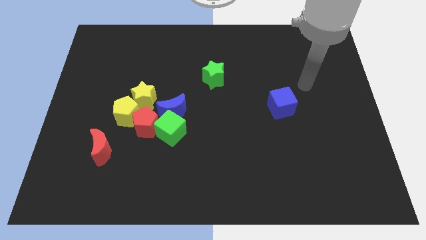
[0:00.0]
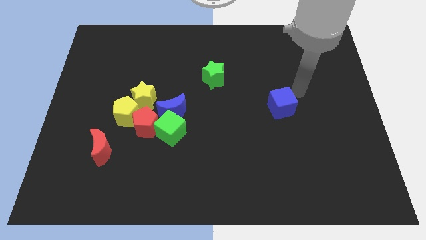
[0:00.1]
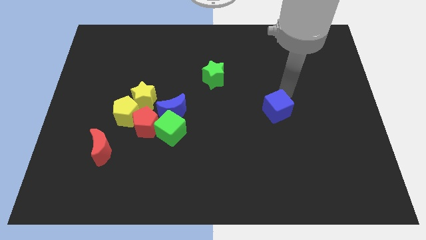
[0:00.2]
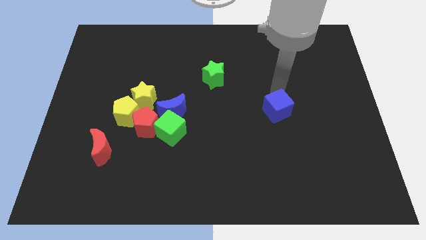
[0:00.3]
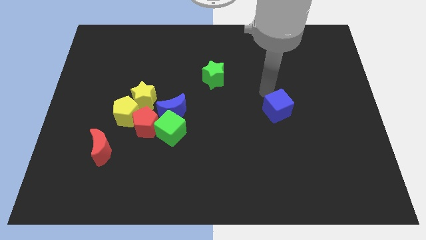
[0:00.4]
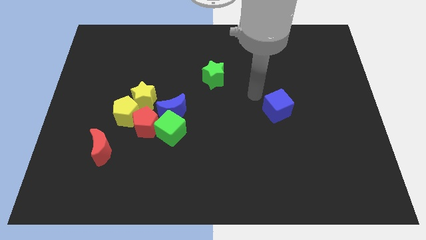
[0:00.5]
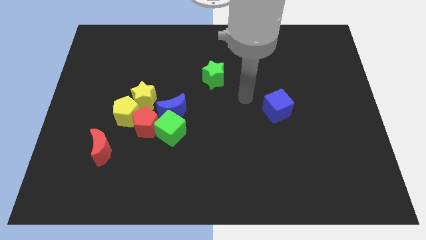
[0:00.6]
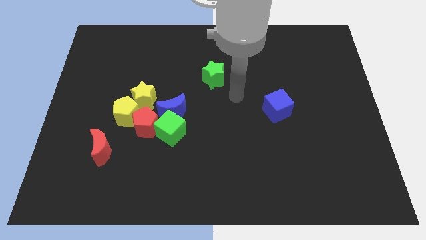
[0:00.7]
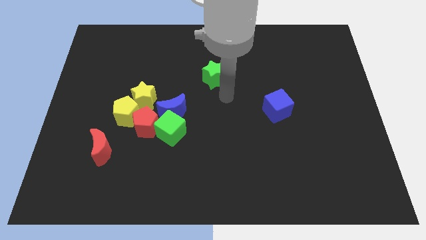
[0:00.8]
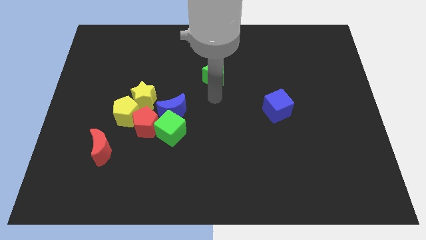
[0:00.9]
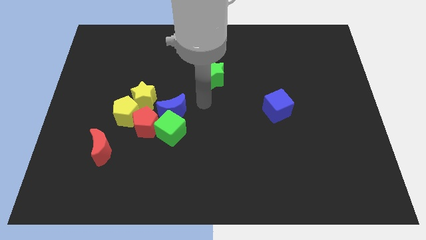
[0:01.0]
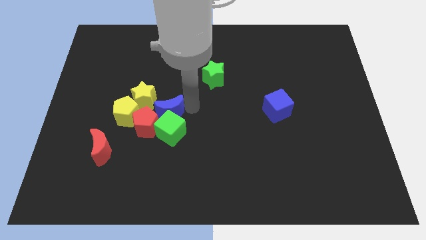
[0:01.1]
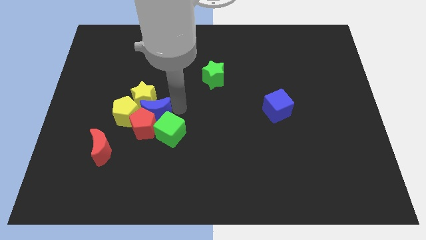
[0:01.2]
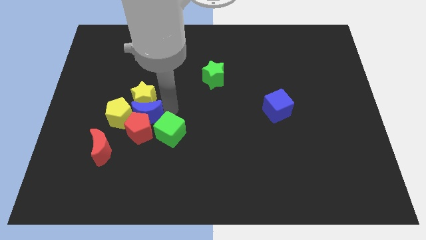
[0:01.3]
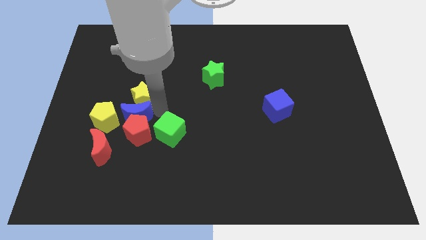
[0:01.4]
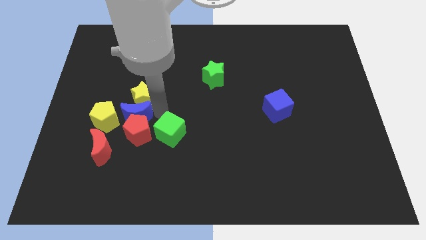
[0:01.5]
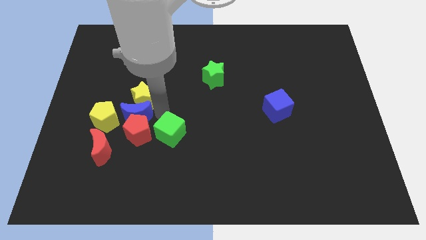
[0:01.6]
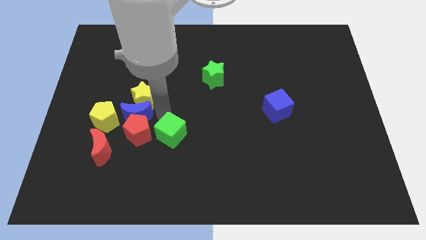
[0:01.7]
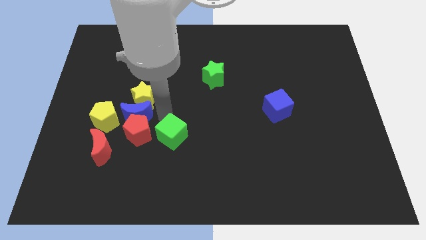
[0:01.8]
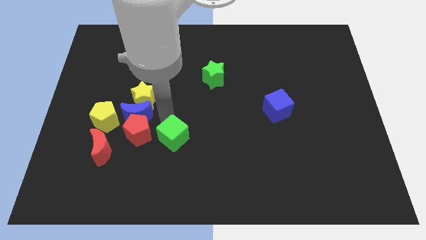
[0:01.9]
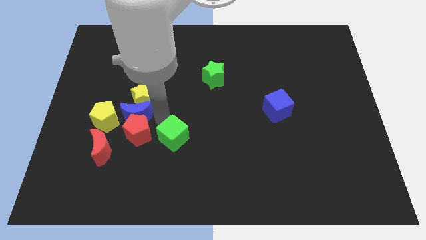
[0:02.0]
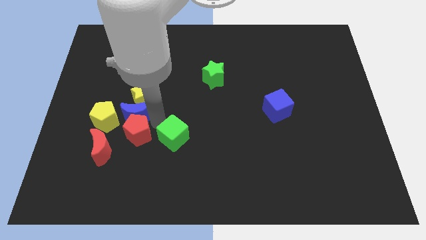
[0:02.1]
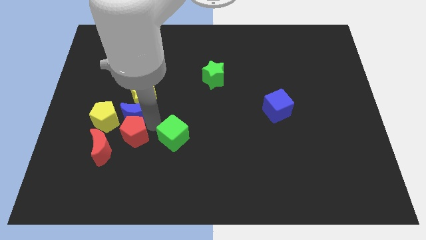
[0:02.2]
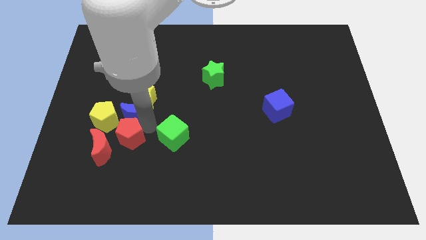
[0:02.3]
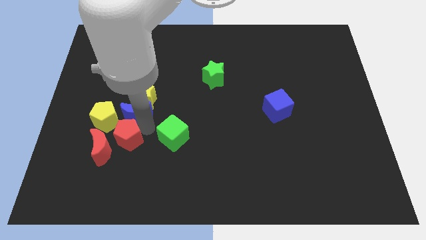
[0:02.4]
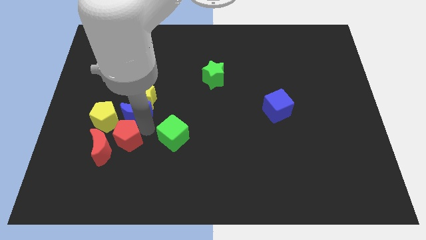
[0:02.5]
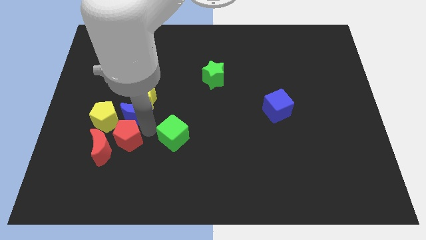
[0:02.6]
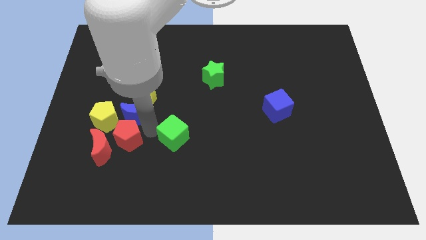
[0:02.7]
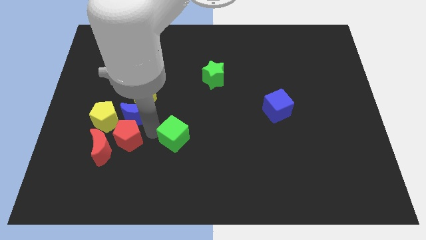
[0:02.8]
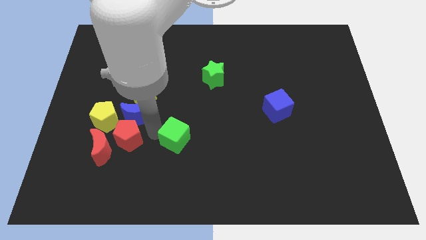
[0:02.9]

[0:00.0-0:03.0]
move the green cube away from the blue moon and red pentagon

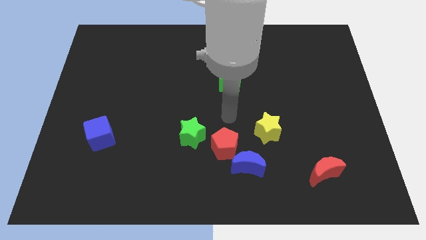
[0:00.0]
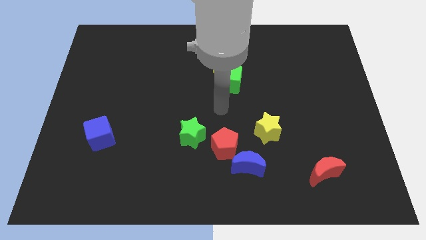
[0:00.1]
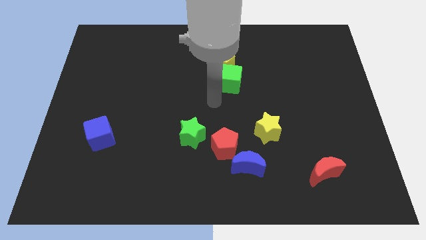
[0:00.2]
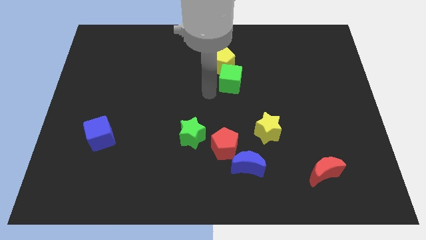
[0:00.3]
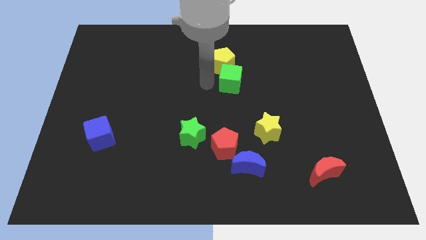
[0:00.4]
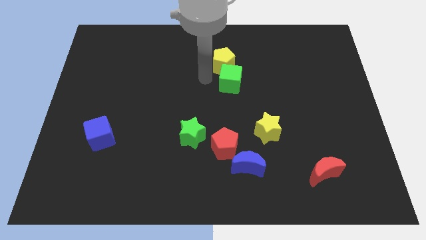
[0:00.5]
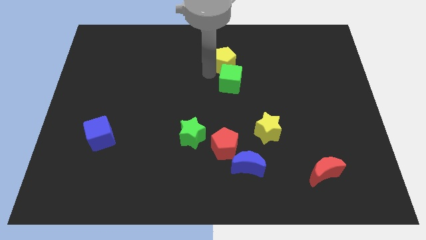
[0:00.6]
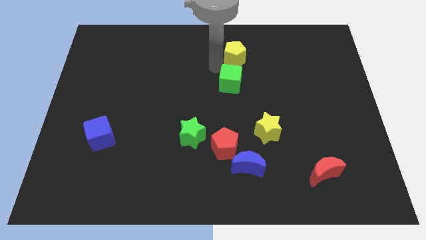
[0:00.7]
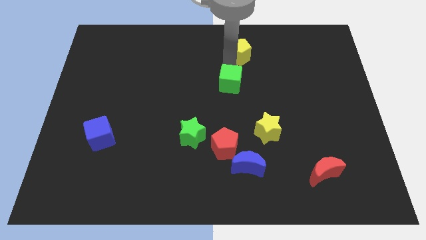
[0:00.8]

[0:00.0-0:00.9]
move the green cube away from the yellow pentagon

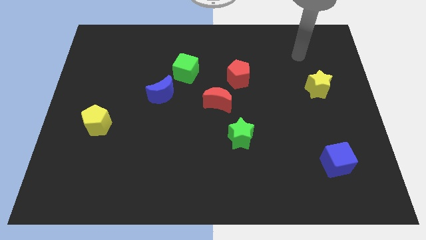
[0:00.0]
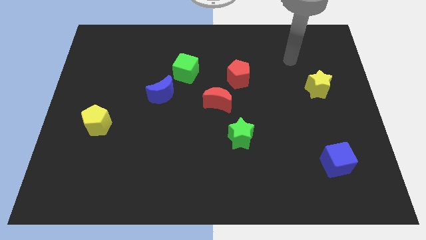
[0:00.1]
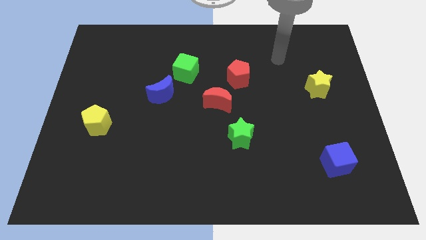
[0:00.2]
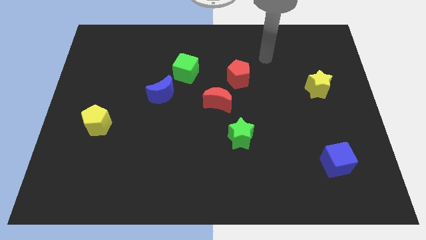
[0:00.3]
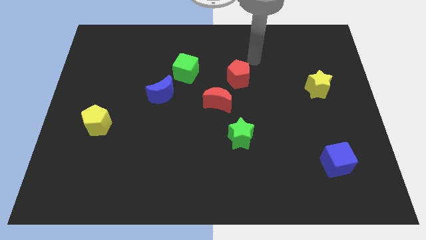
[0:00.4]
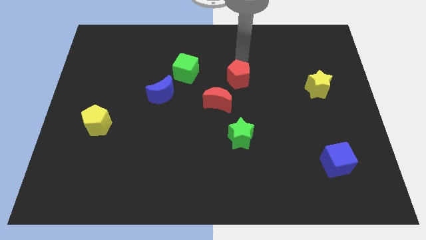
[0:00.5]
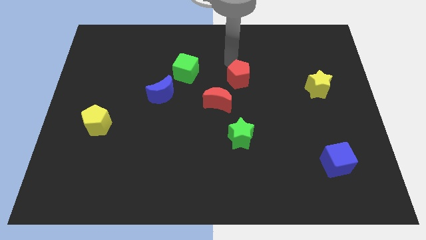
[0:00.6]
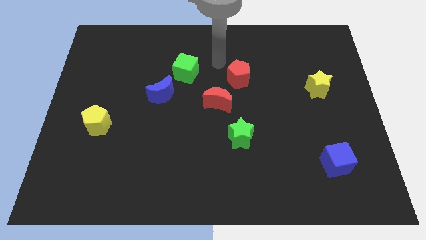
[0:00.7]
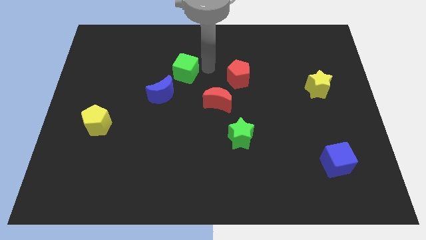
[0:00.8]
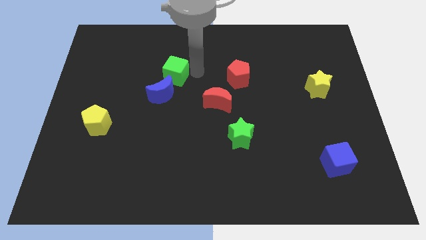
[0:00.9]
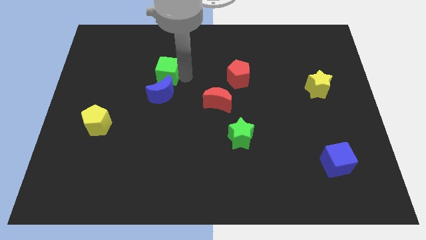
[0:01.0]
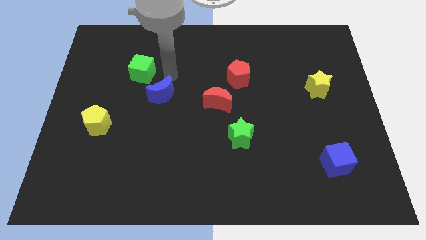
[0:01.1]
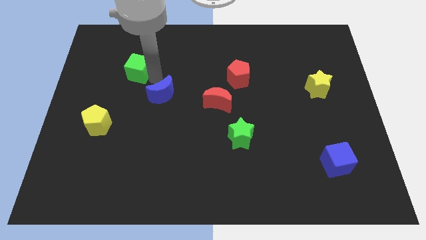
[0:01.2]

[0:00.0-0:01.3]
separate the blue moon from the green cube

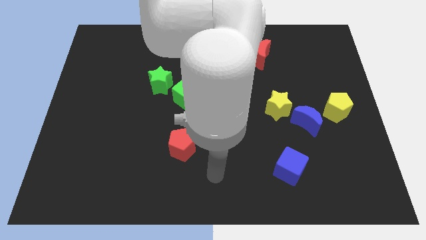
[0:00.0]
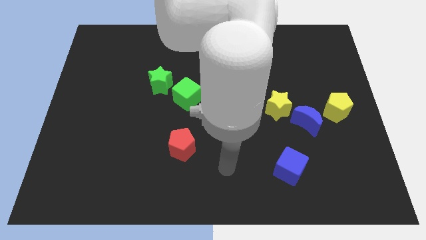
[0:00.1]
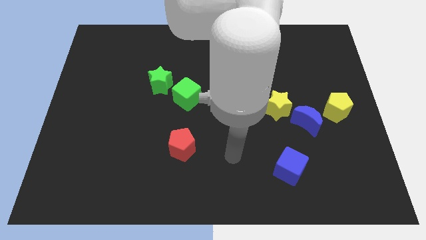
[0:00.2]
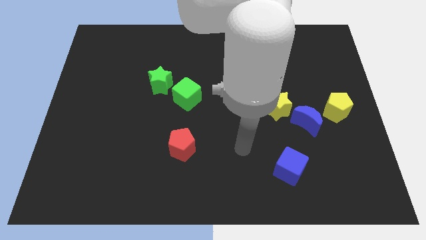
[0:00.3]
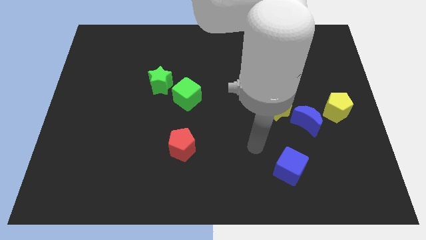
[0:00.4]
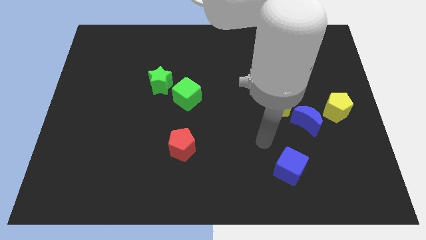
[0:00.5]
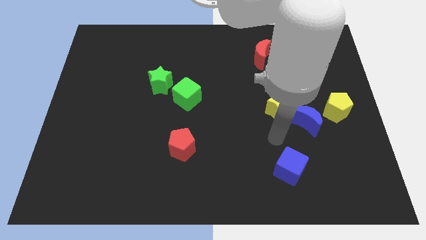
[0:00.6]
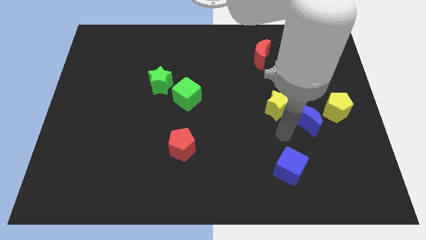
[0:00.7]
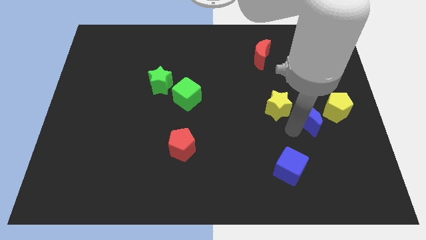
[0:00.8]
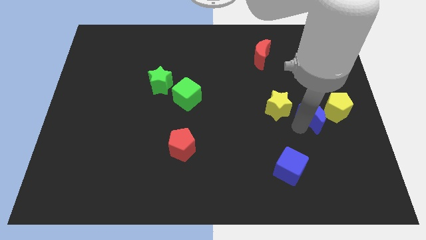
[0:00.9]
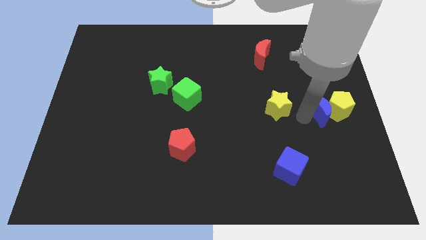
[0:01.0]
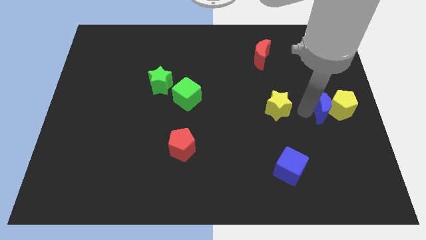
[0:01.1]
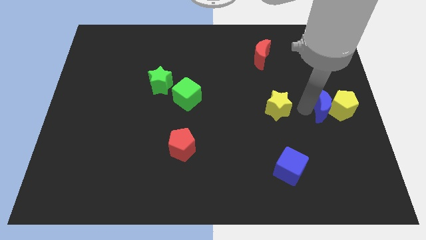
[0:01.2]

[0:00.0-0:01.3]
move the yellow star away from the blue moon

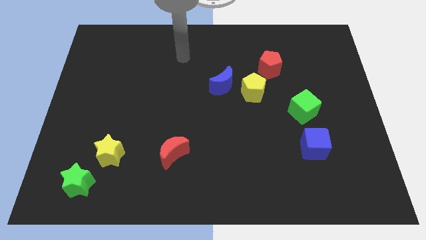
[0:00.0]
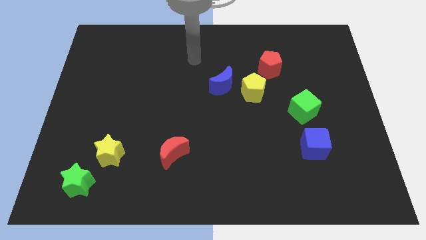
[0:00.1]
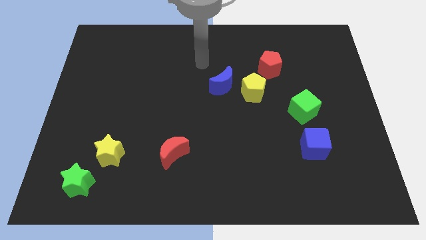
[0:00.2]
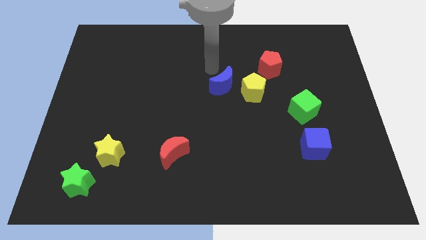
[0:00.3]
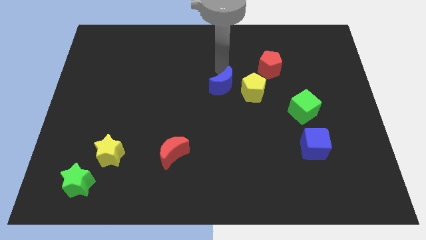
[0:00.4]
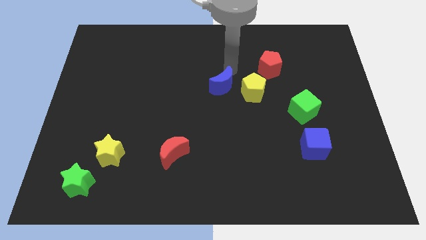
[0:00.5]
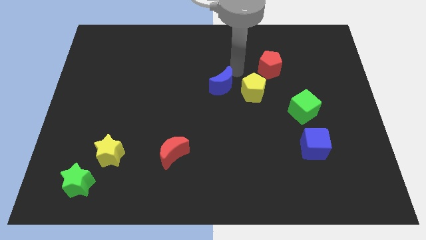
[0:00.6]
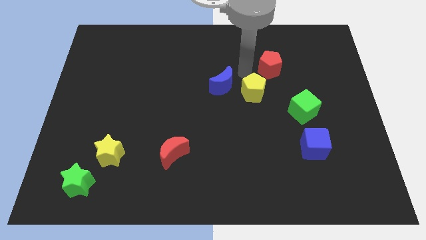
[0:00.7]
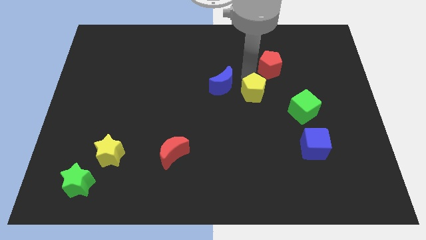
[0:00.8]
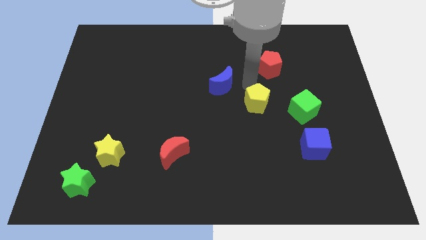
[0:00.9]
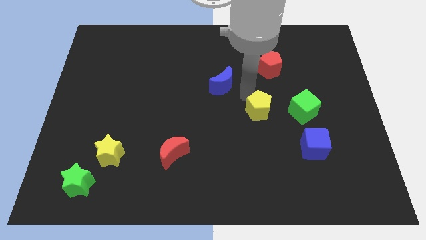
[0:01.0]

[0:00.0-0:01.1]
move the blue moon away from the yellow pentagon

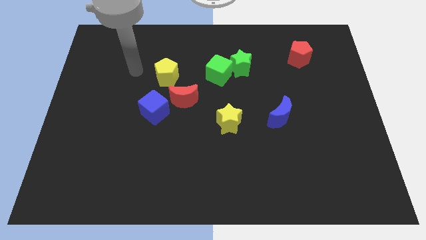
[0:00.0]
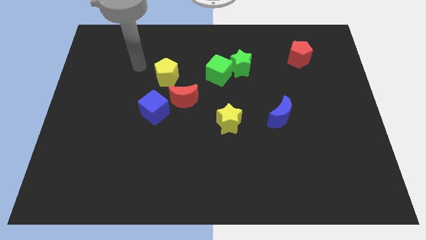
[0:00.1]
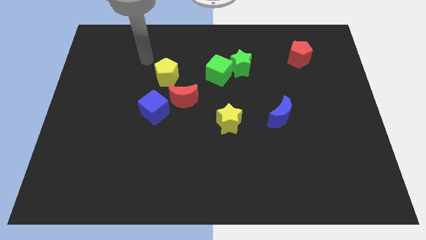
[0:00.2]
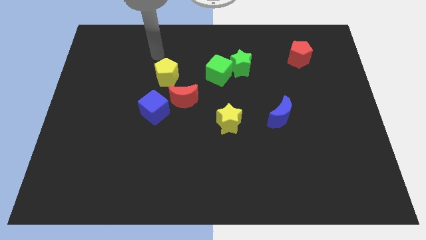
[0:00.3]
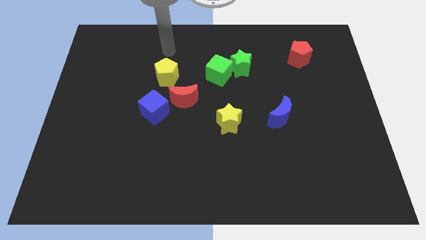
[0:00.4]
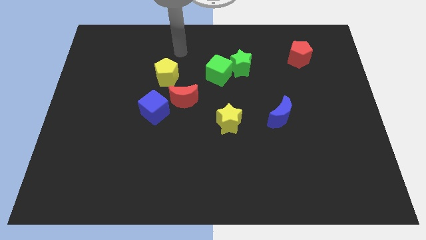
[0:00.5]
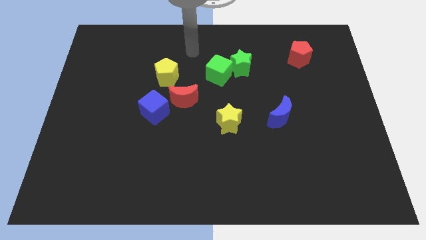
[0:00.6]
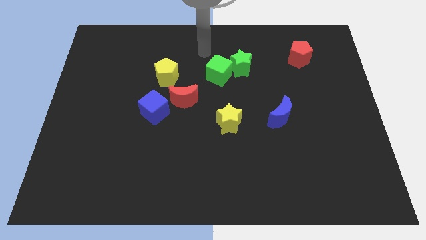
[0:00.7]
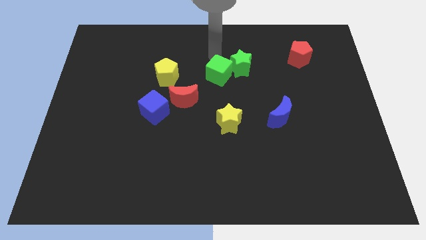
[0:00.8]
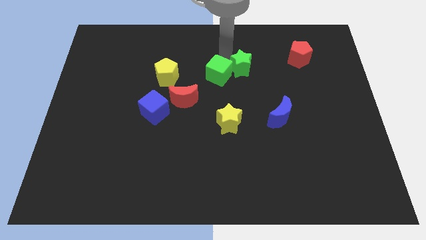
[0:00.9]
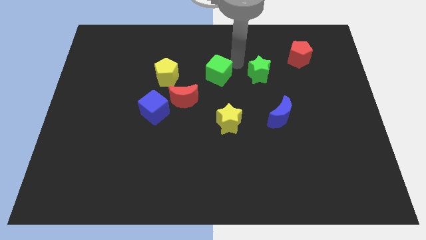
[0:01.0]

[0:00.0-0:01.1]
separate the green cube from the green star

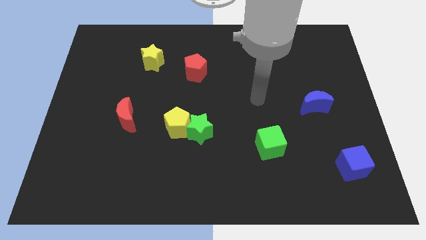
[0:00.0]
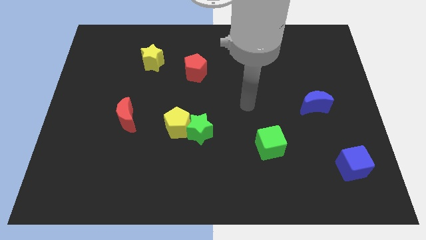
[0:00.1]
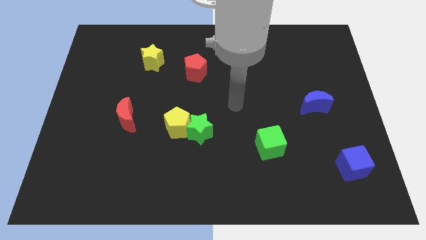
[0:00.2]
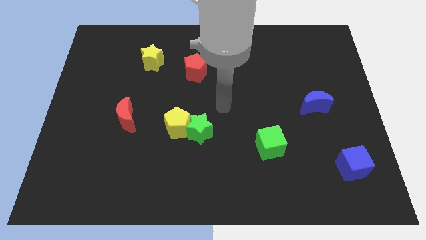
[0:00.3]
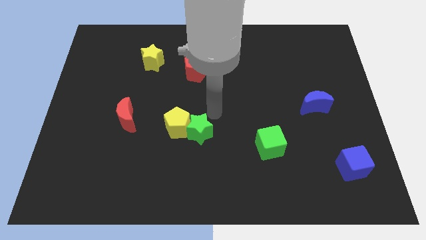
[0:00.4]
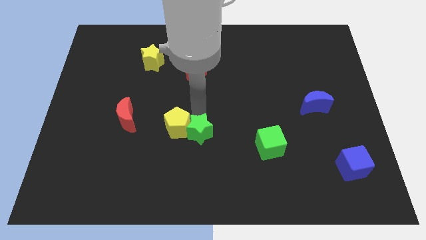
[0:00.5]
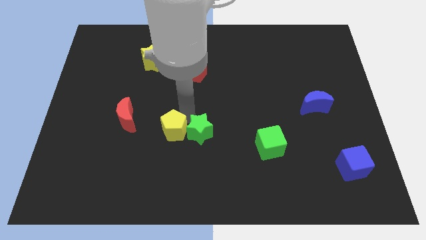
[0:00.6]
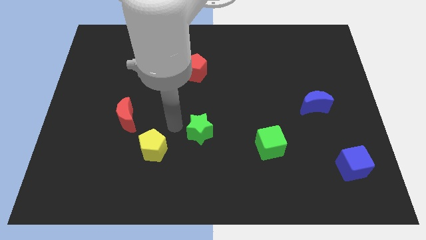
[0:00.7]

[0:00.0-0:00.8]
move the green star away from the yellow pentagon
